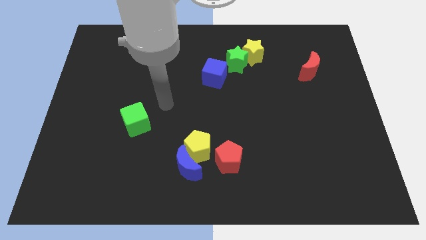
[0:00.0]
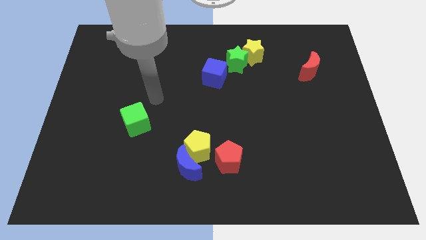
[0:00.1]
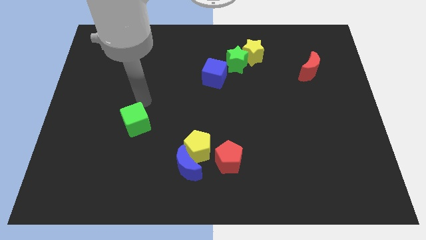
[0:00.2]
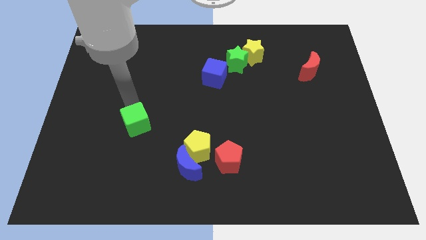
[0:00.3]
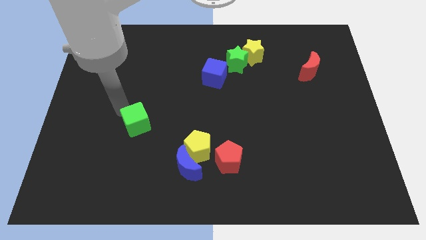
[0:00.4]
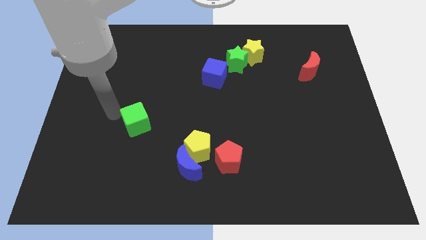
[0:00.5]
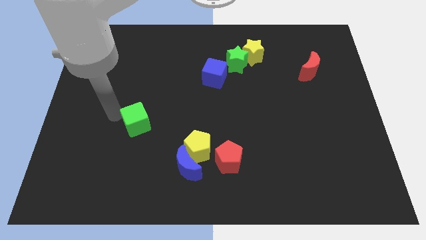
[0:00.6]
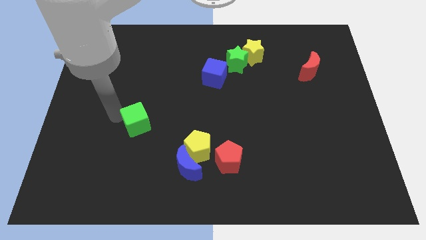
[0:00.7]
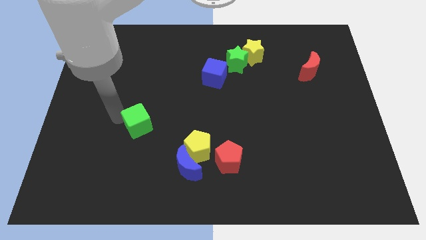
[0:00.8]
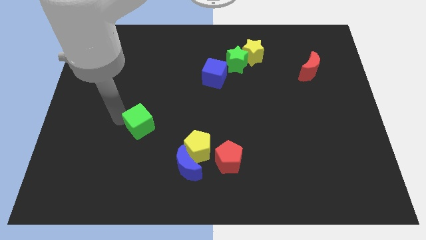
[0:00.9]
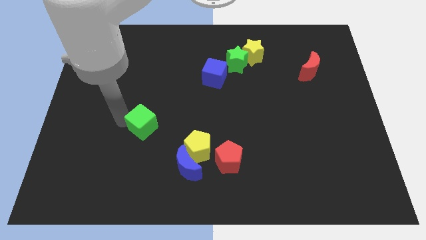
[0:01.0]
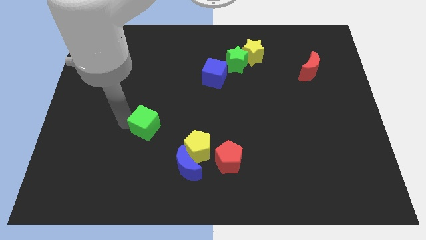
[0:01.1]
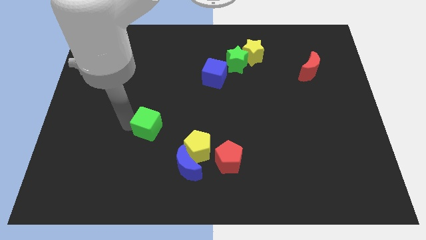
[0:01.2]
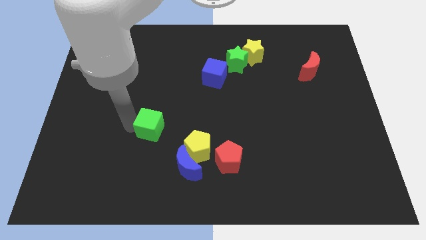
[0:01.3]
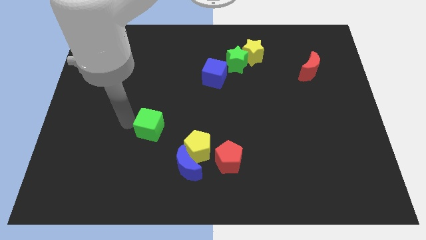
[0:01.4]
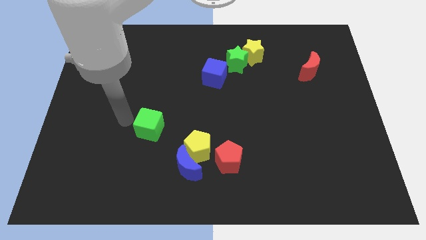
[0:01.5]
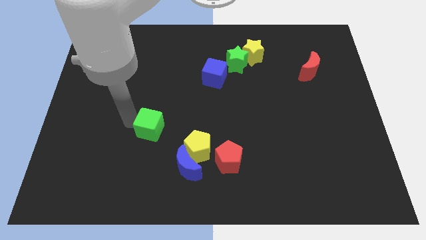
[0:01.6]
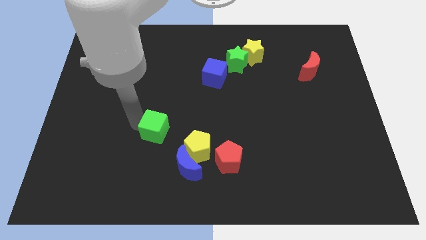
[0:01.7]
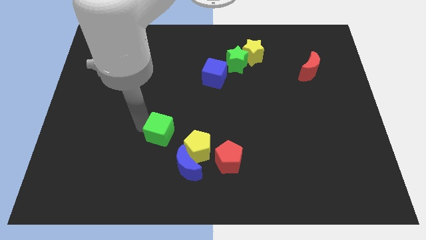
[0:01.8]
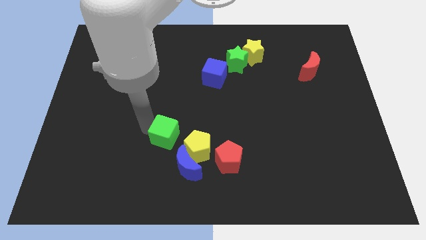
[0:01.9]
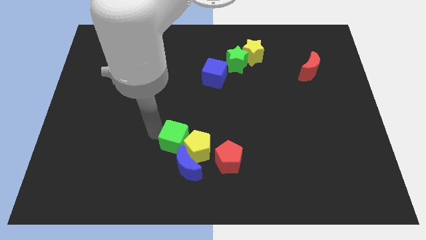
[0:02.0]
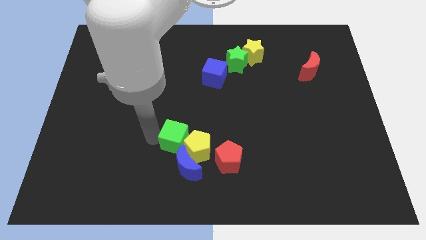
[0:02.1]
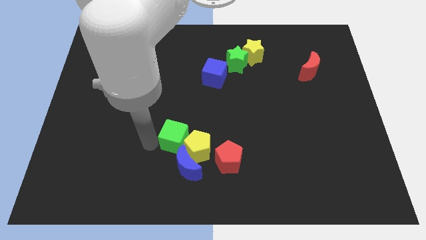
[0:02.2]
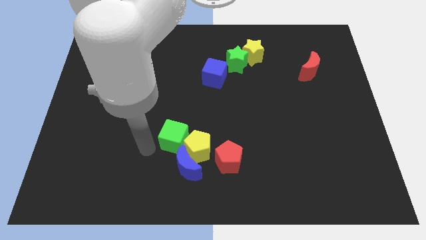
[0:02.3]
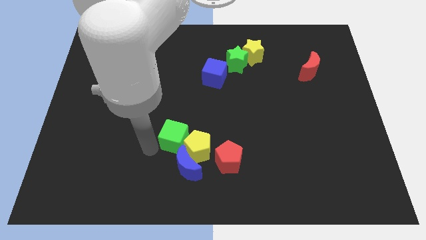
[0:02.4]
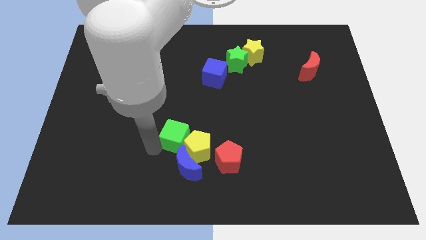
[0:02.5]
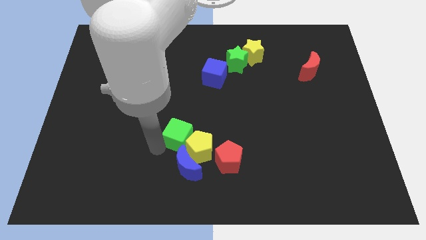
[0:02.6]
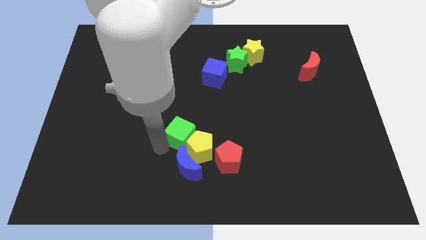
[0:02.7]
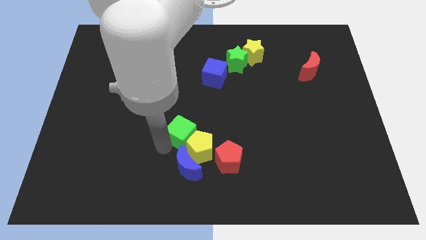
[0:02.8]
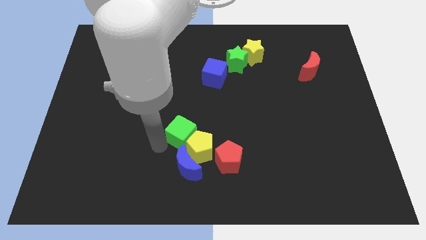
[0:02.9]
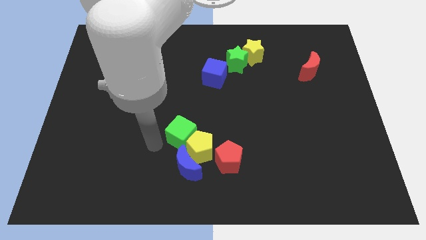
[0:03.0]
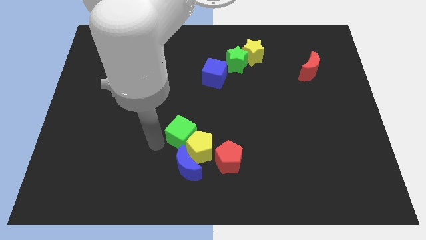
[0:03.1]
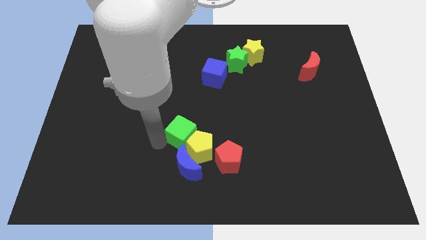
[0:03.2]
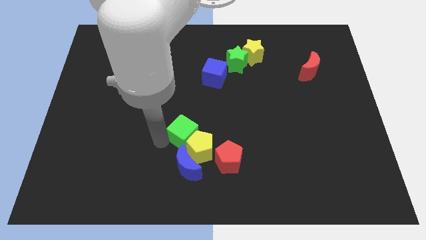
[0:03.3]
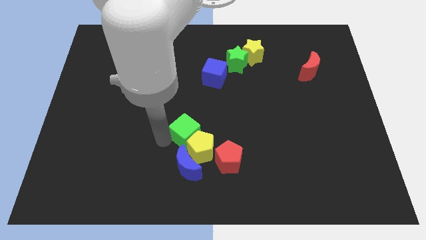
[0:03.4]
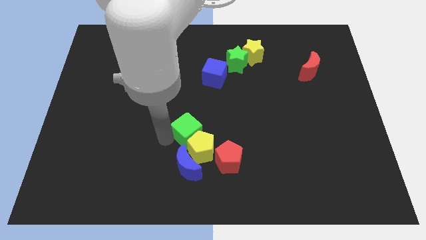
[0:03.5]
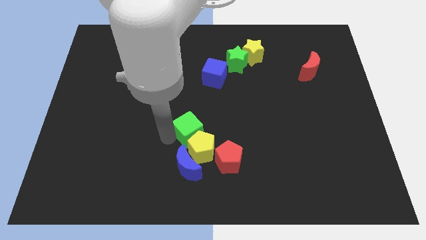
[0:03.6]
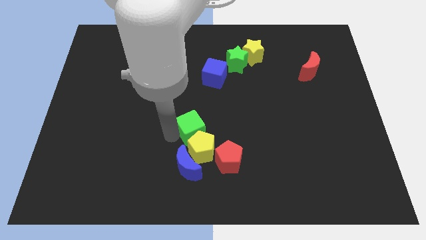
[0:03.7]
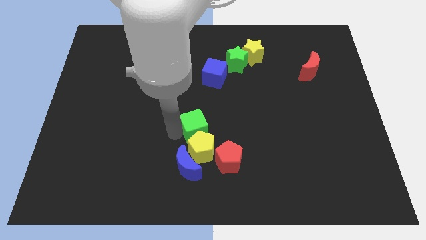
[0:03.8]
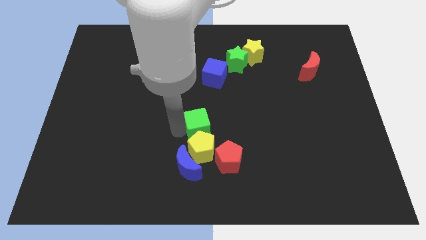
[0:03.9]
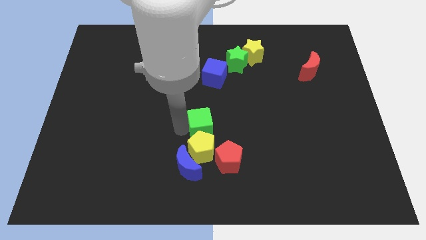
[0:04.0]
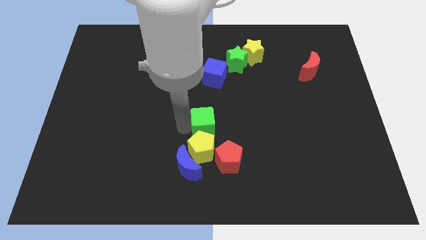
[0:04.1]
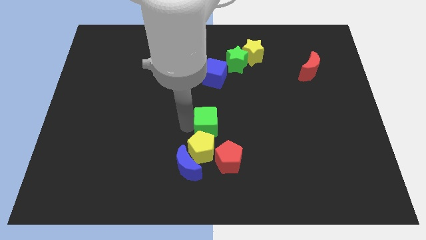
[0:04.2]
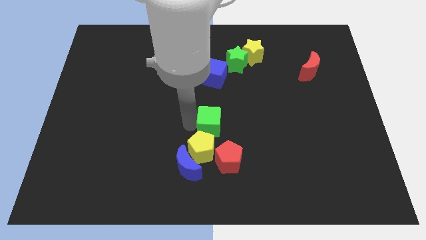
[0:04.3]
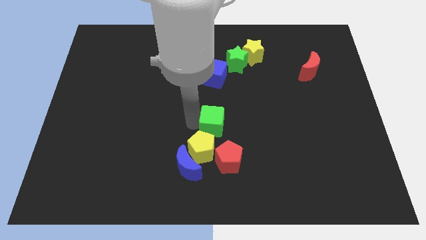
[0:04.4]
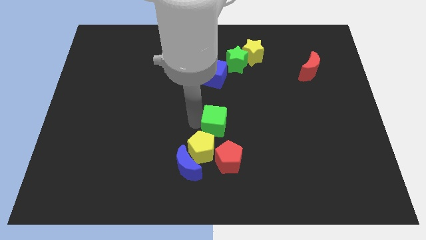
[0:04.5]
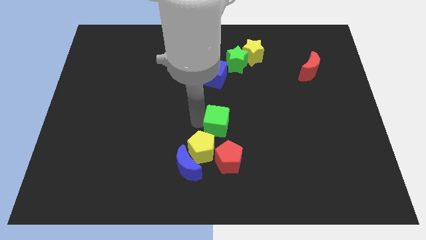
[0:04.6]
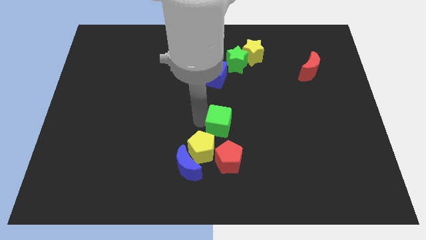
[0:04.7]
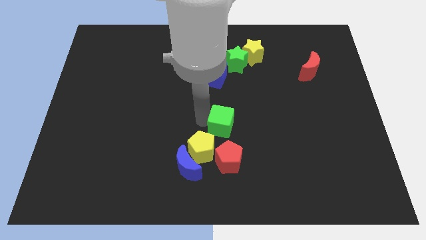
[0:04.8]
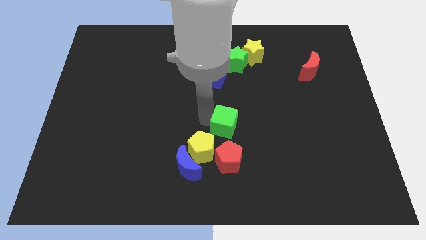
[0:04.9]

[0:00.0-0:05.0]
slide the green cube to the right

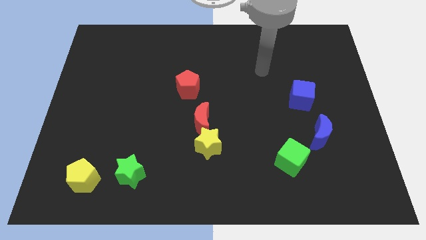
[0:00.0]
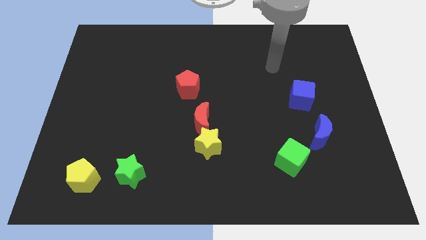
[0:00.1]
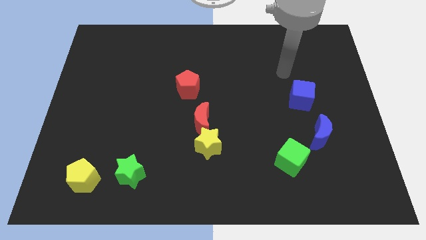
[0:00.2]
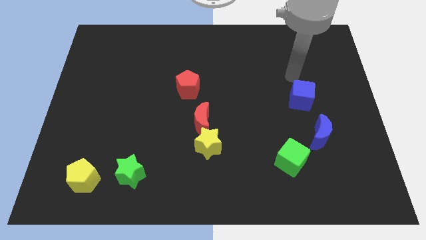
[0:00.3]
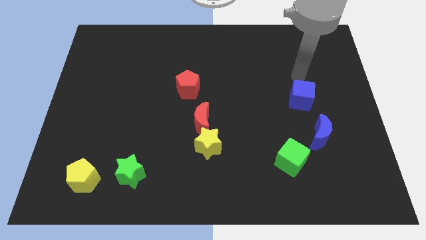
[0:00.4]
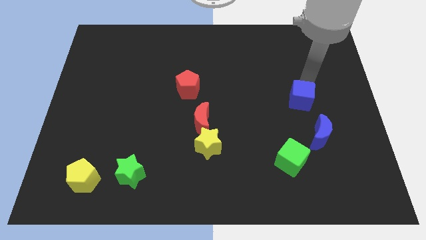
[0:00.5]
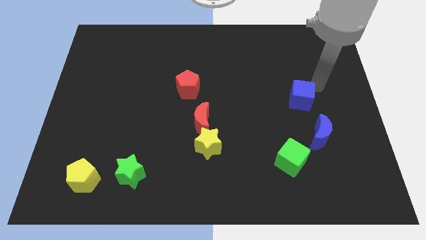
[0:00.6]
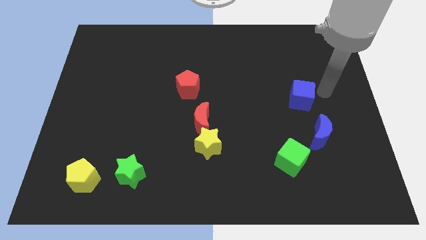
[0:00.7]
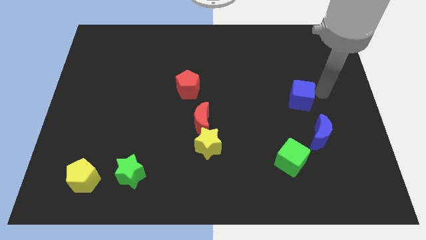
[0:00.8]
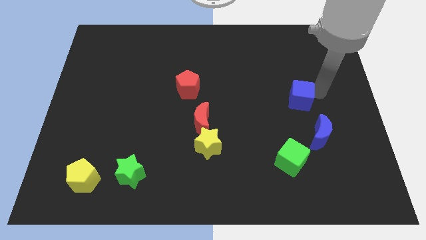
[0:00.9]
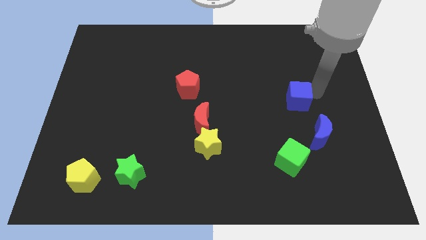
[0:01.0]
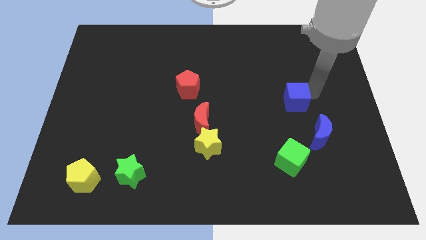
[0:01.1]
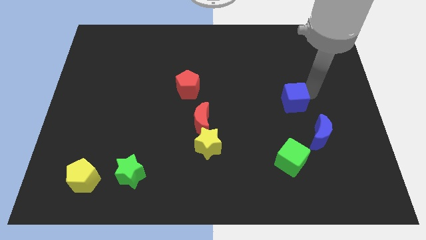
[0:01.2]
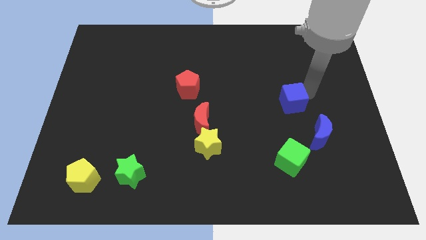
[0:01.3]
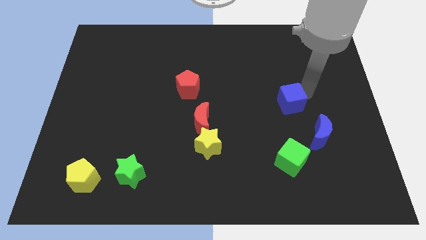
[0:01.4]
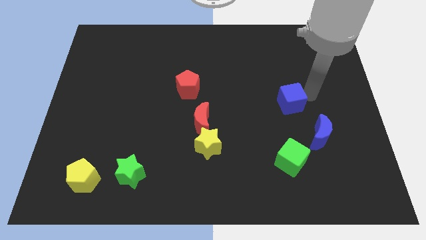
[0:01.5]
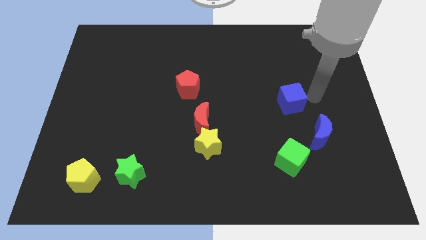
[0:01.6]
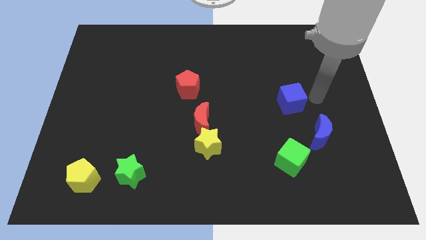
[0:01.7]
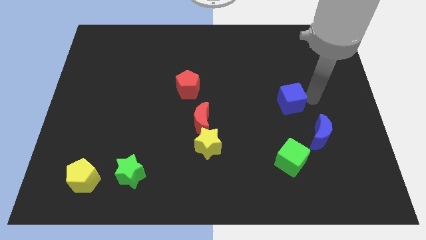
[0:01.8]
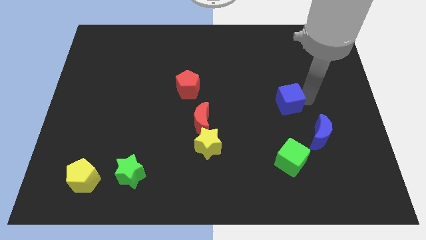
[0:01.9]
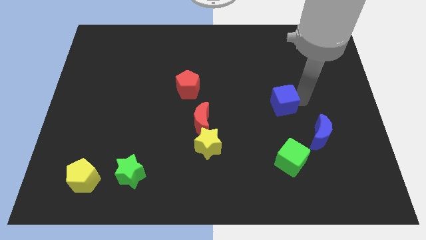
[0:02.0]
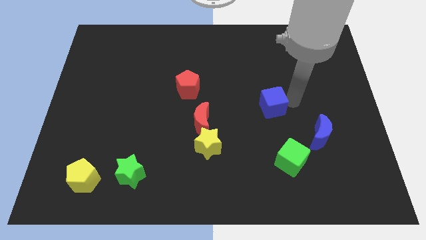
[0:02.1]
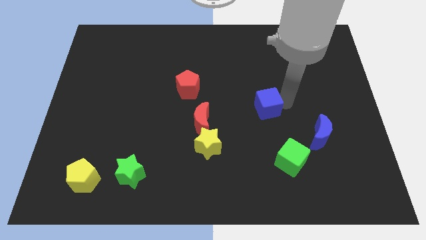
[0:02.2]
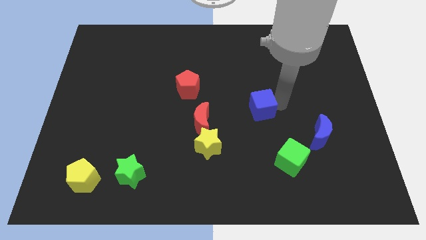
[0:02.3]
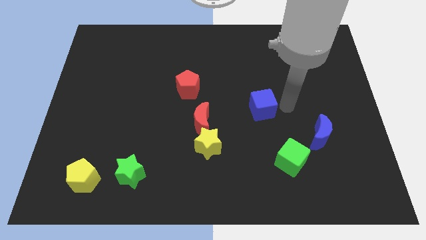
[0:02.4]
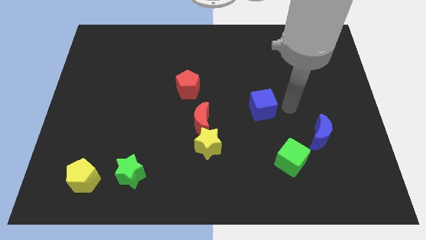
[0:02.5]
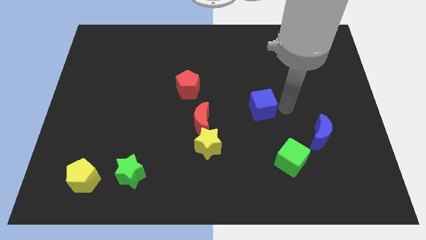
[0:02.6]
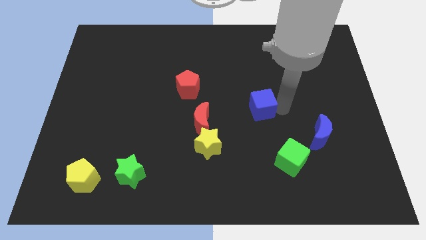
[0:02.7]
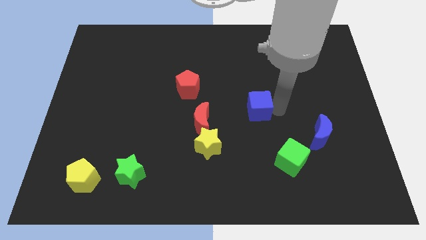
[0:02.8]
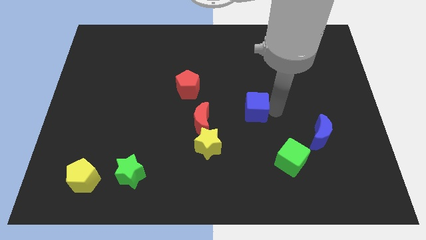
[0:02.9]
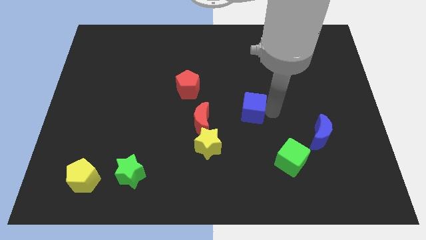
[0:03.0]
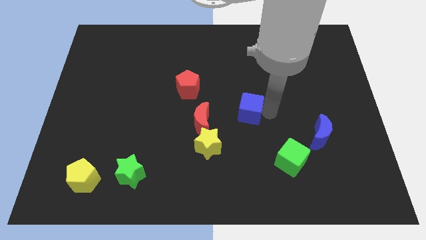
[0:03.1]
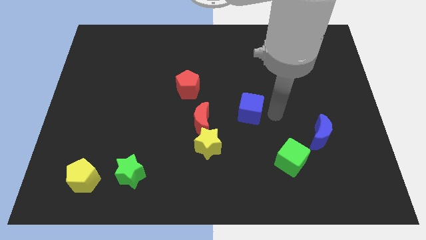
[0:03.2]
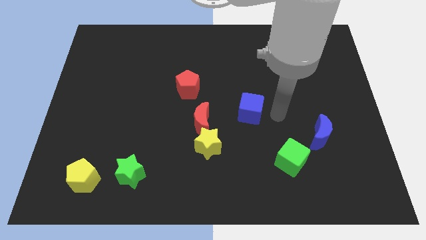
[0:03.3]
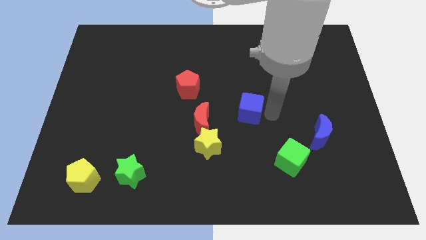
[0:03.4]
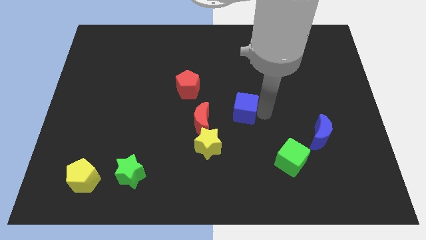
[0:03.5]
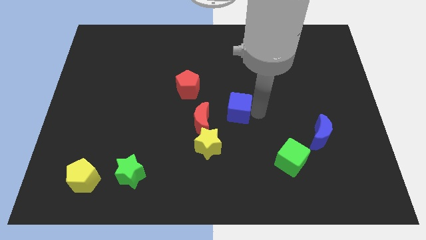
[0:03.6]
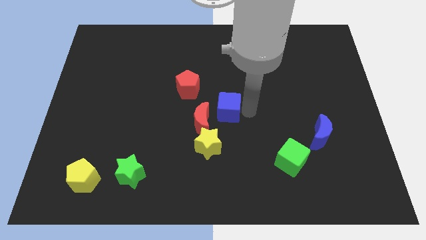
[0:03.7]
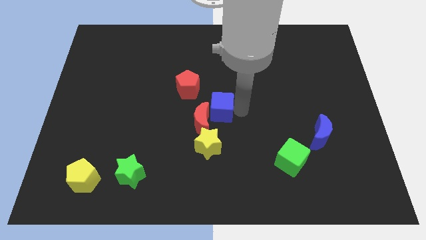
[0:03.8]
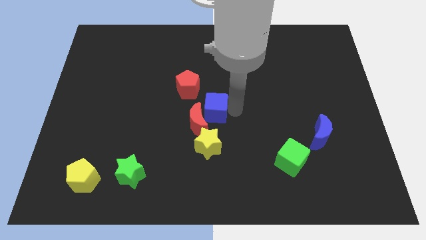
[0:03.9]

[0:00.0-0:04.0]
push the blue cube left
